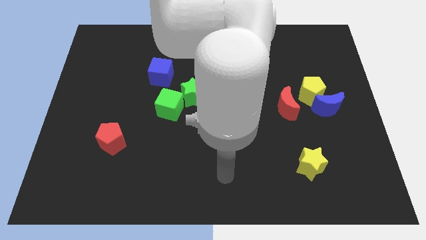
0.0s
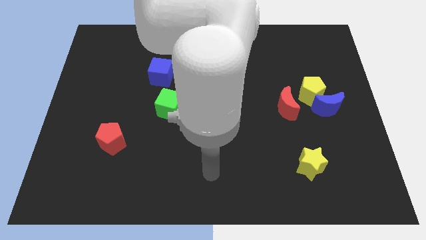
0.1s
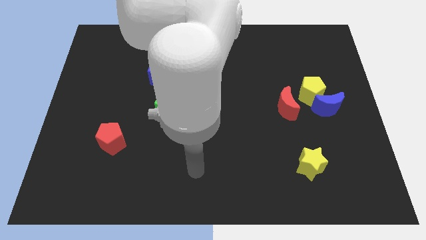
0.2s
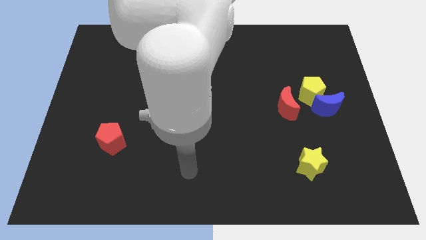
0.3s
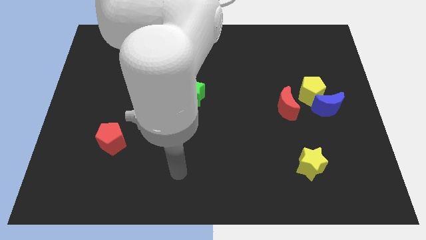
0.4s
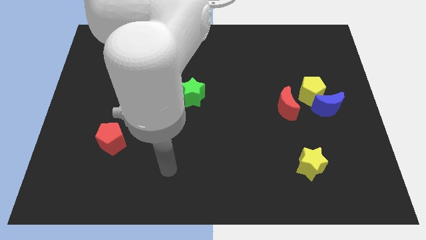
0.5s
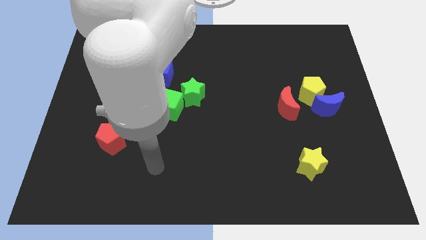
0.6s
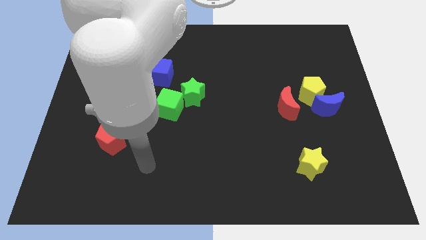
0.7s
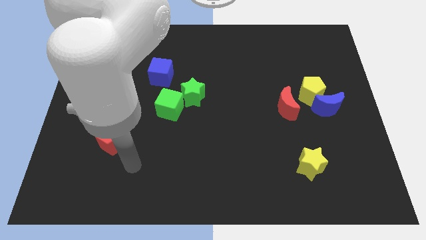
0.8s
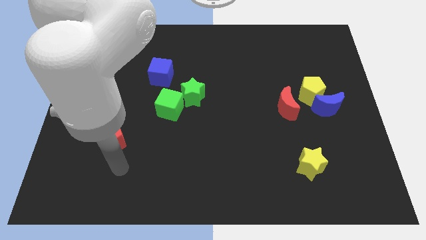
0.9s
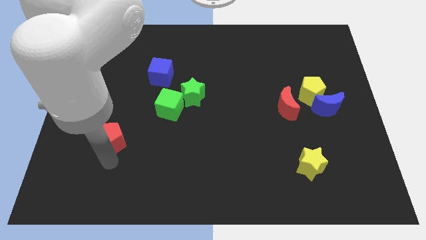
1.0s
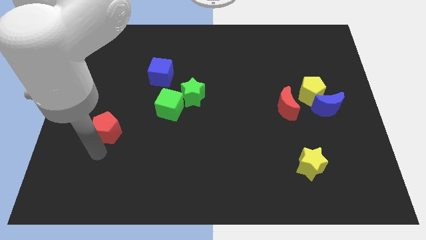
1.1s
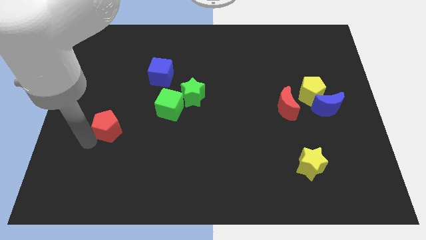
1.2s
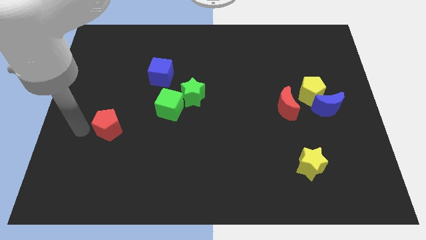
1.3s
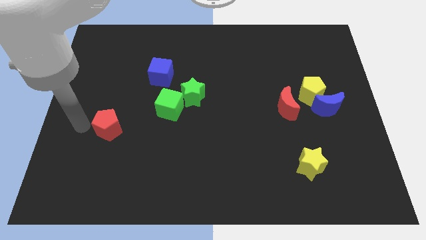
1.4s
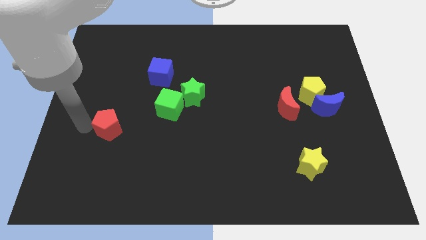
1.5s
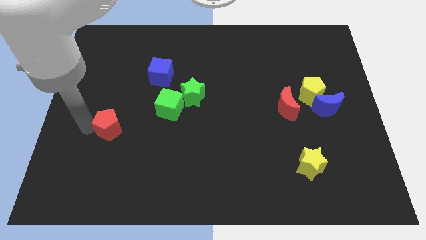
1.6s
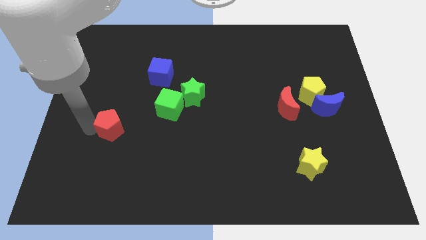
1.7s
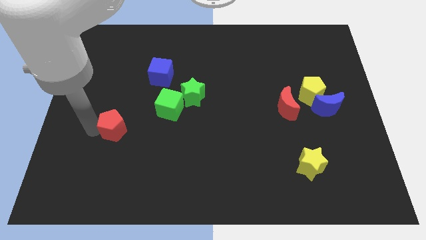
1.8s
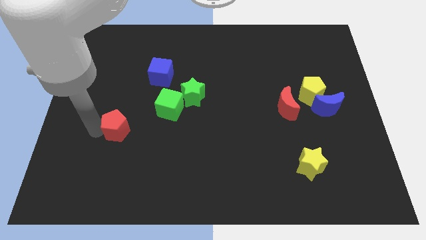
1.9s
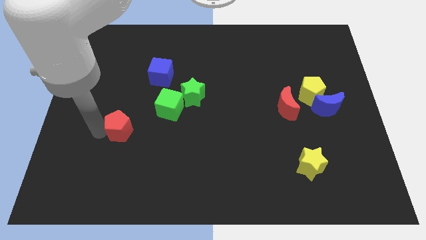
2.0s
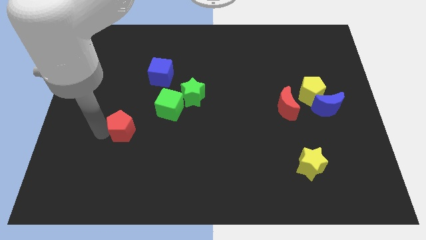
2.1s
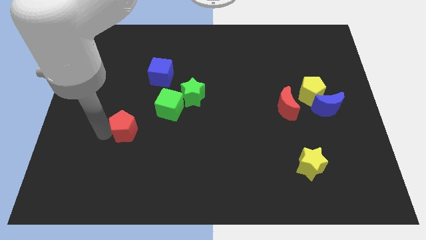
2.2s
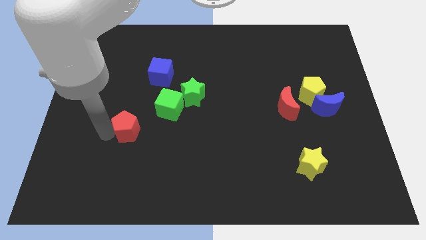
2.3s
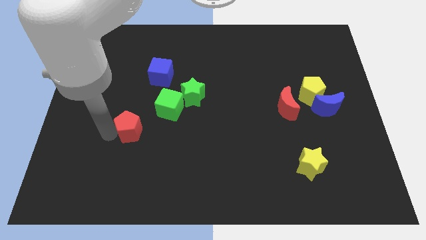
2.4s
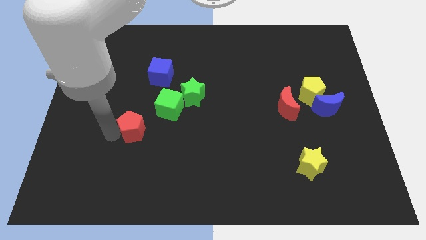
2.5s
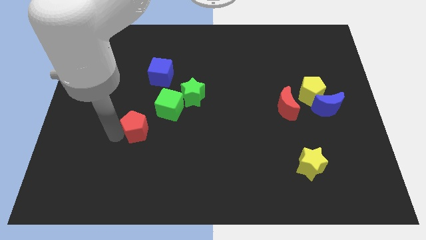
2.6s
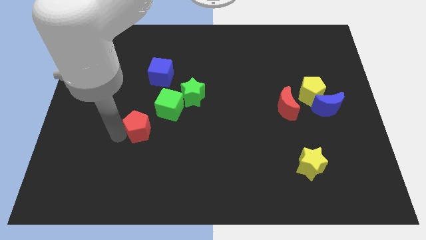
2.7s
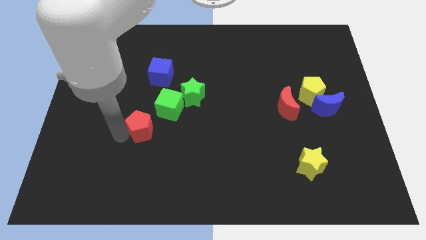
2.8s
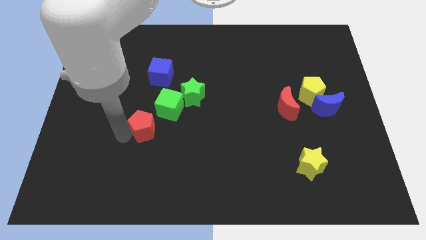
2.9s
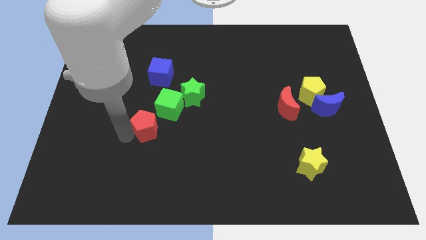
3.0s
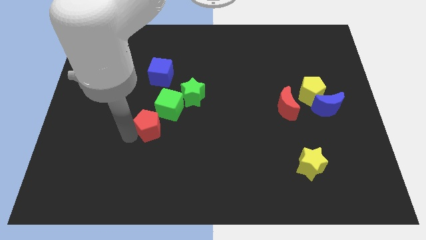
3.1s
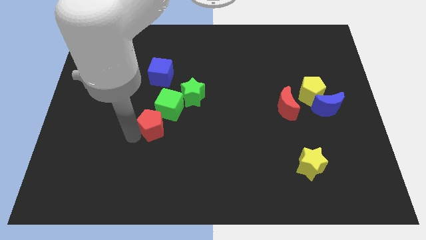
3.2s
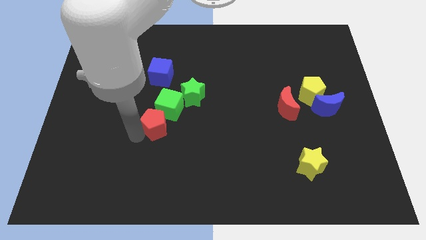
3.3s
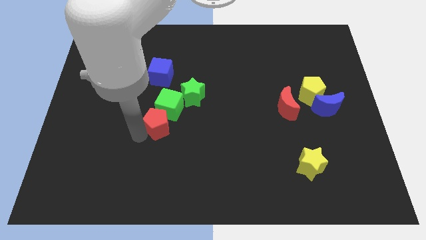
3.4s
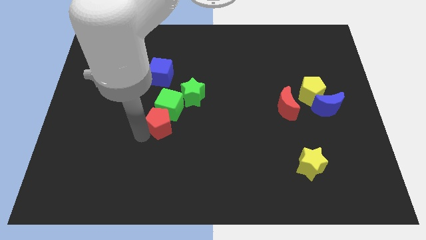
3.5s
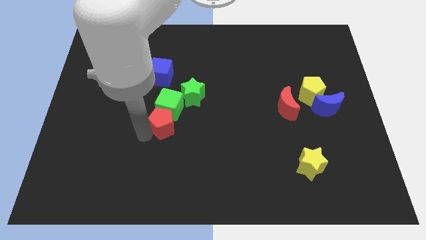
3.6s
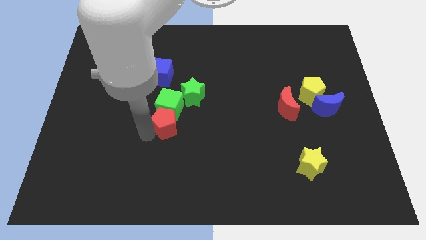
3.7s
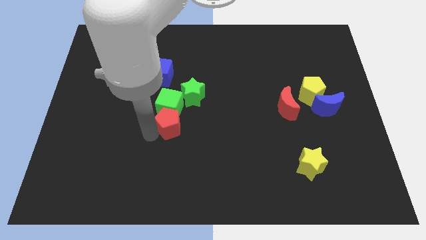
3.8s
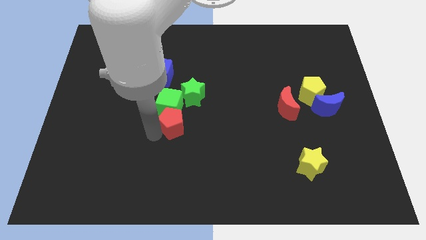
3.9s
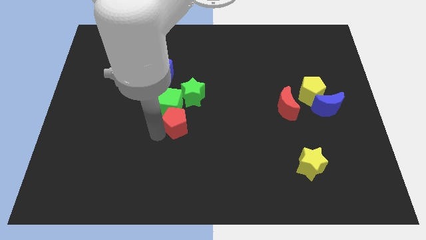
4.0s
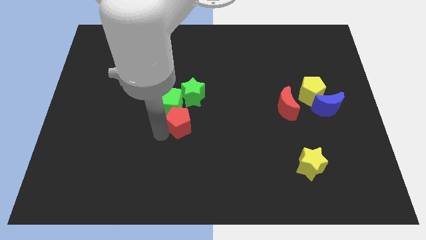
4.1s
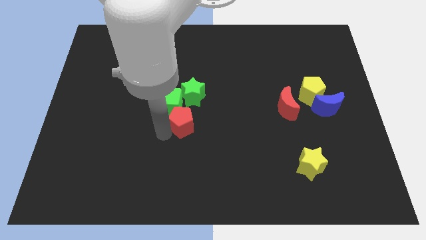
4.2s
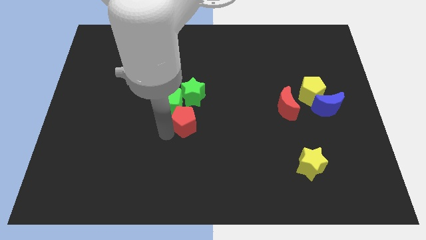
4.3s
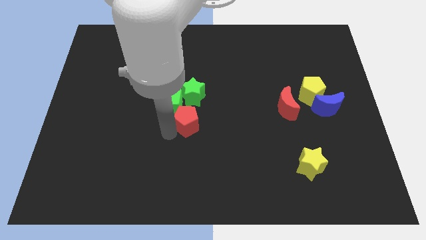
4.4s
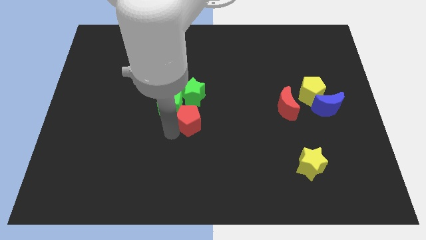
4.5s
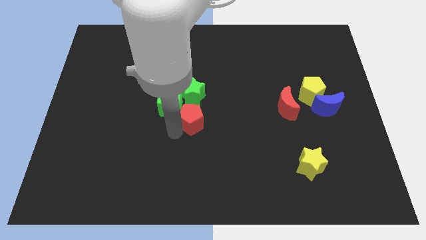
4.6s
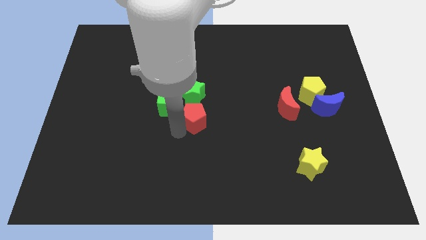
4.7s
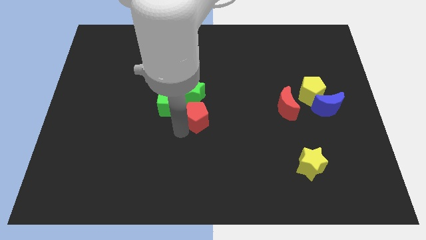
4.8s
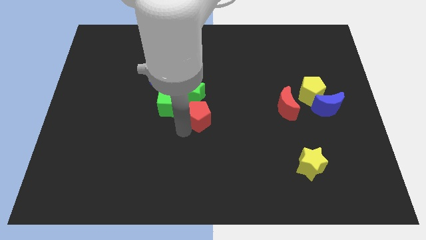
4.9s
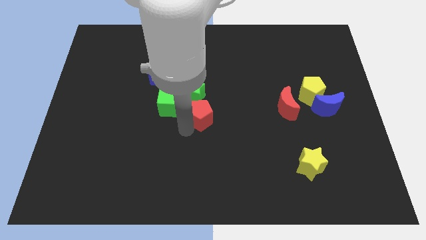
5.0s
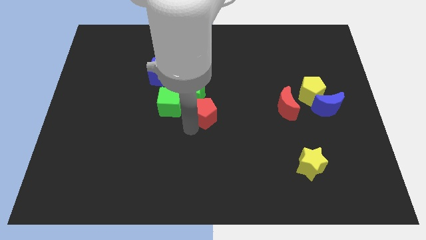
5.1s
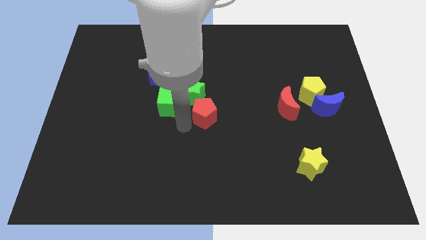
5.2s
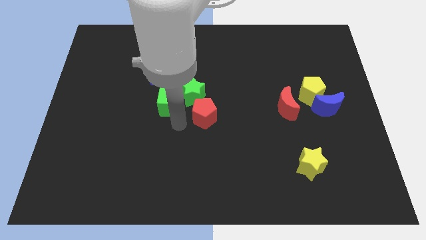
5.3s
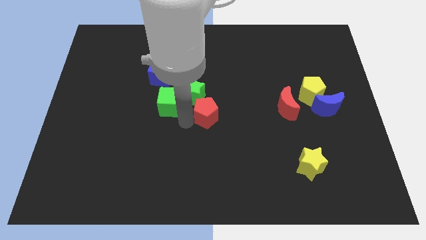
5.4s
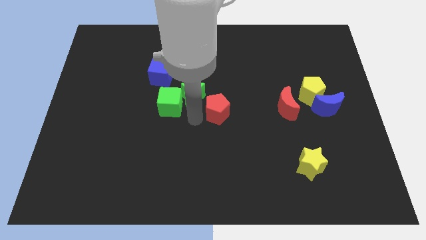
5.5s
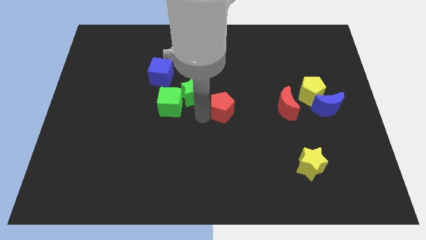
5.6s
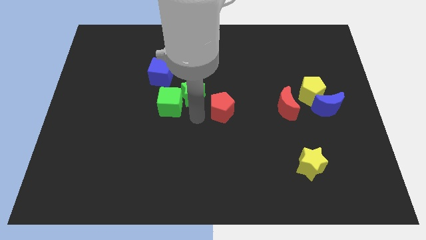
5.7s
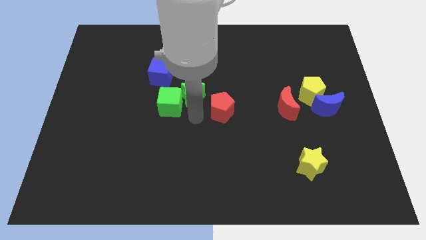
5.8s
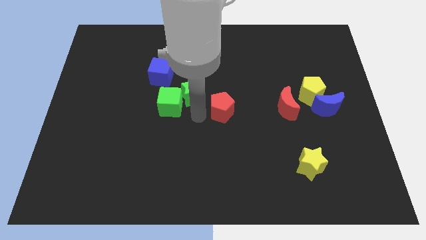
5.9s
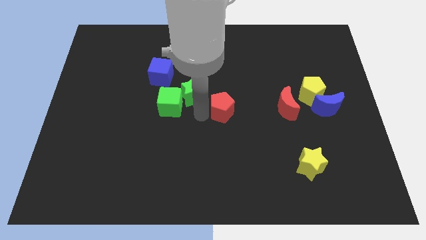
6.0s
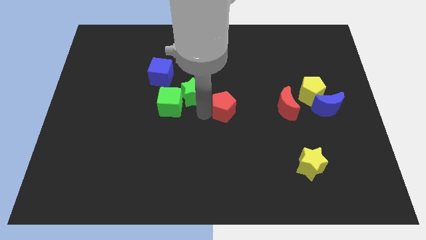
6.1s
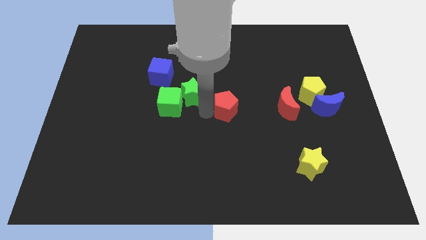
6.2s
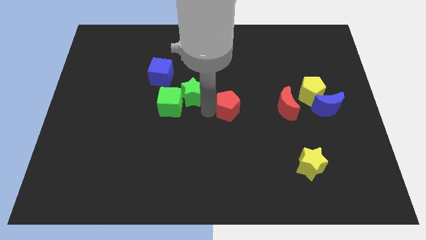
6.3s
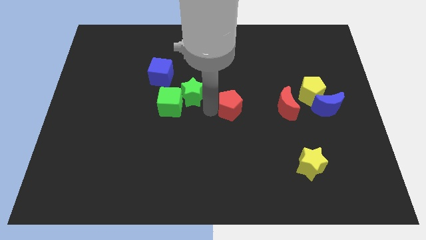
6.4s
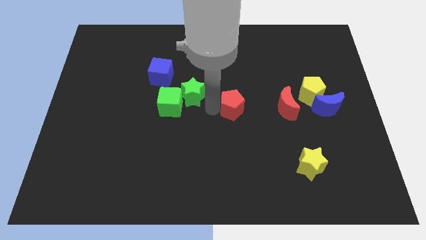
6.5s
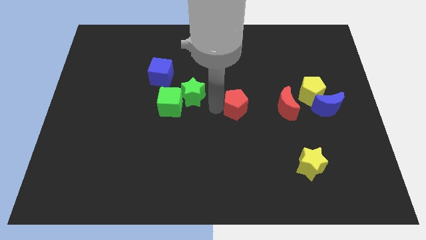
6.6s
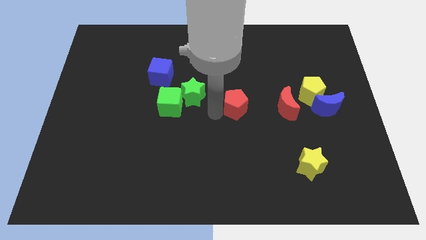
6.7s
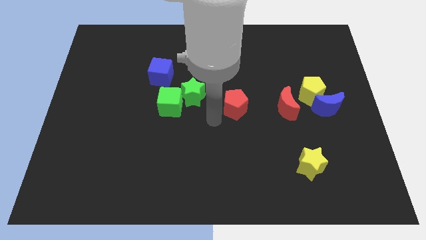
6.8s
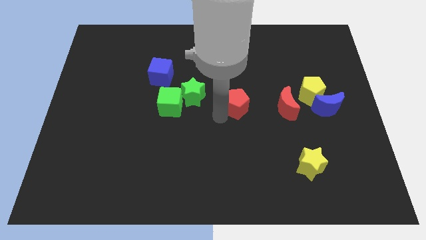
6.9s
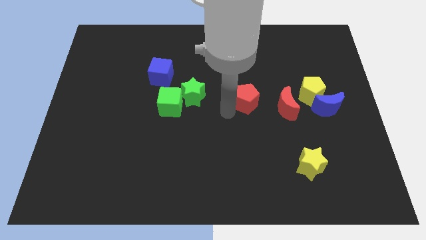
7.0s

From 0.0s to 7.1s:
move the red pentagon diagonally up and to the left of the red moon
